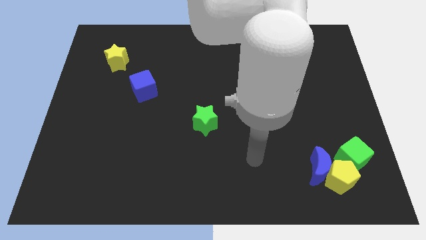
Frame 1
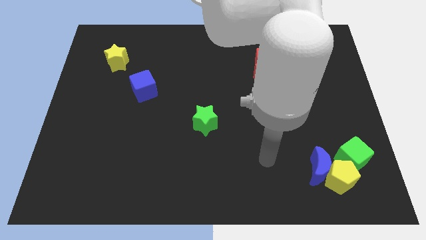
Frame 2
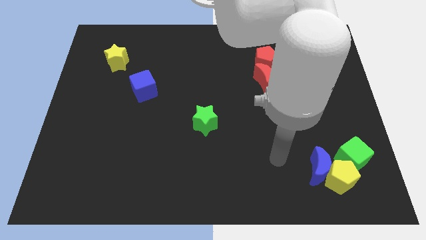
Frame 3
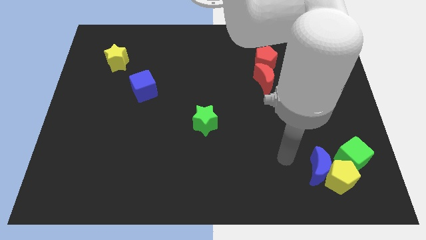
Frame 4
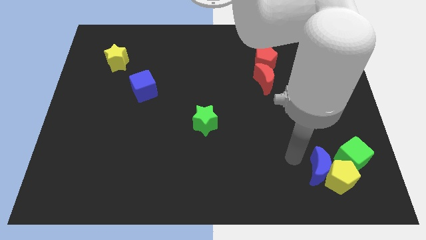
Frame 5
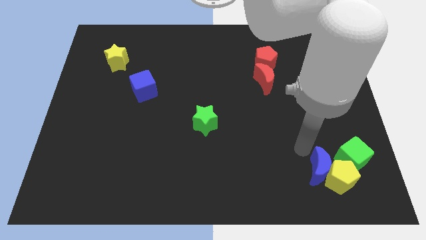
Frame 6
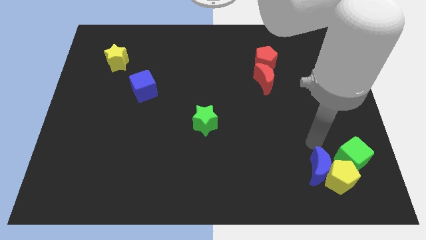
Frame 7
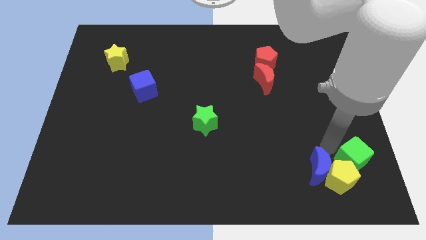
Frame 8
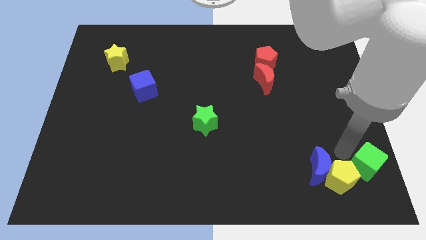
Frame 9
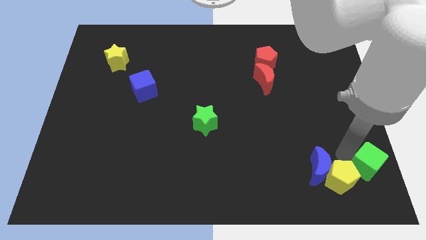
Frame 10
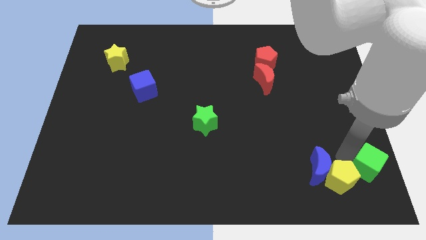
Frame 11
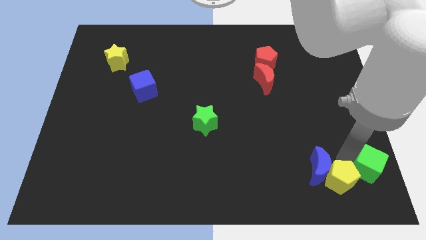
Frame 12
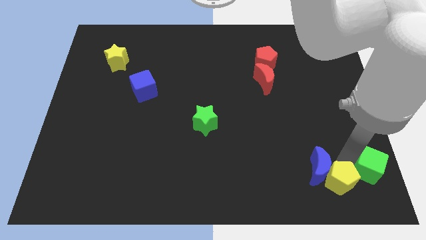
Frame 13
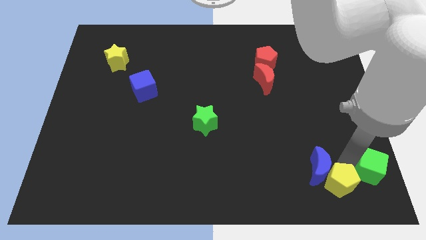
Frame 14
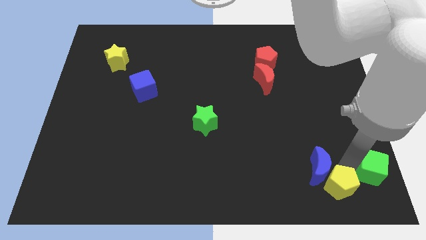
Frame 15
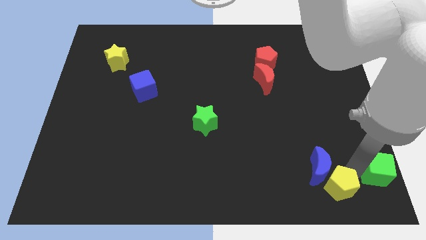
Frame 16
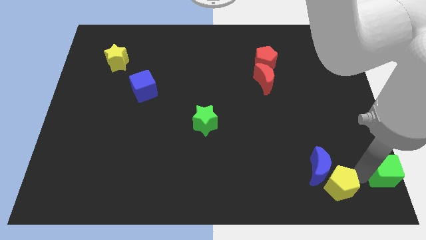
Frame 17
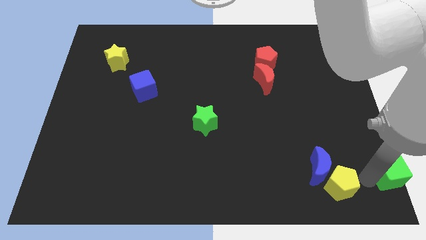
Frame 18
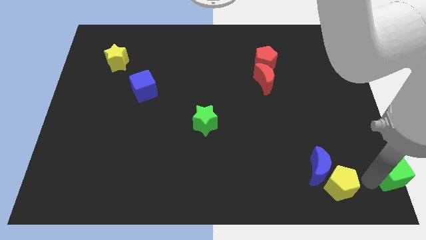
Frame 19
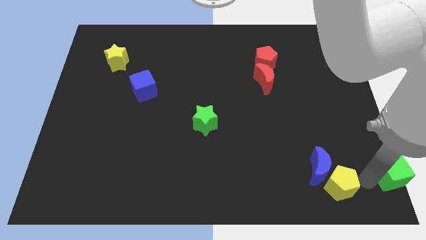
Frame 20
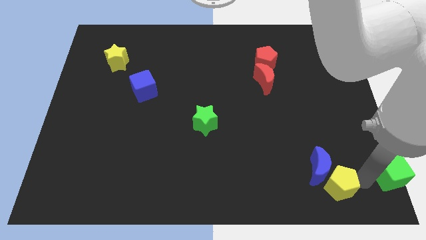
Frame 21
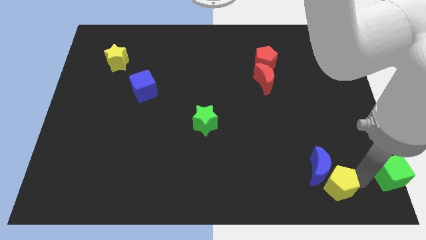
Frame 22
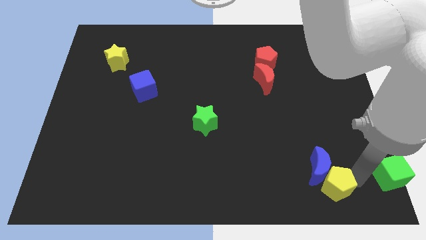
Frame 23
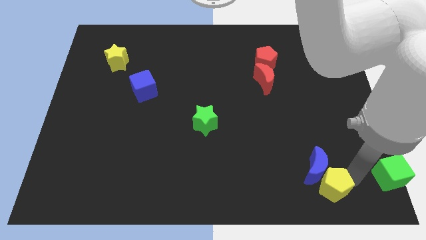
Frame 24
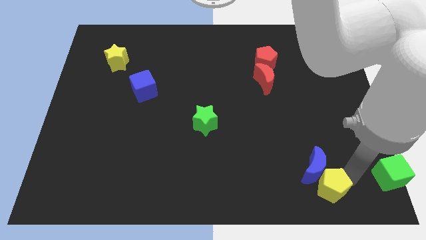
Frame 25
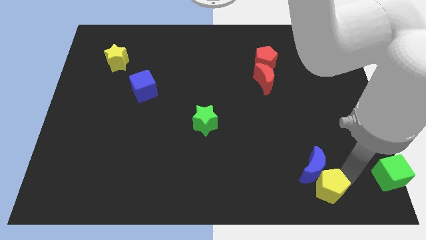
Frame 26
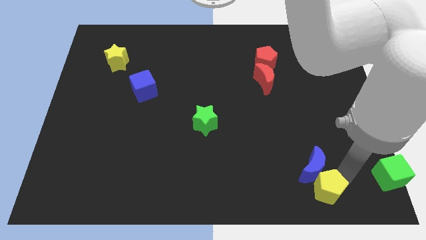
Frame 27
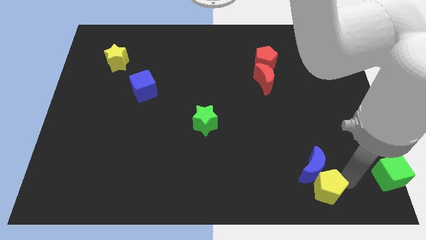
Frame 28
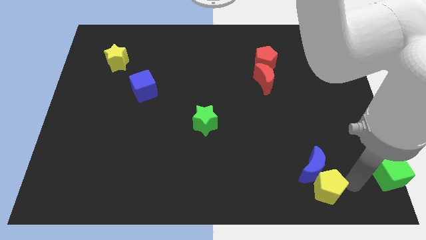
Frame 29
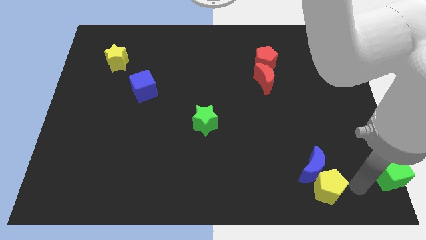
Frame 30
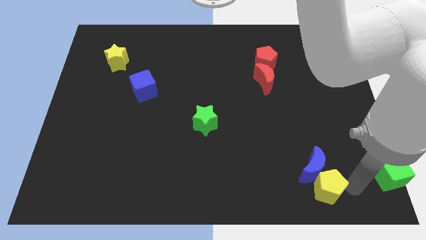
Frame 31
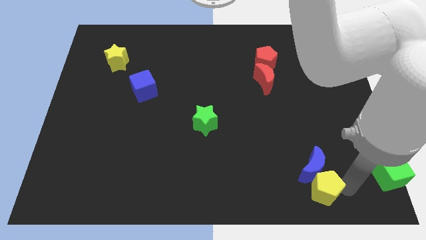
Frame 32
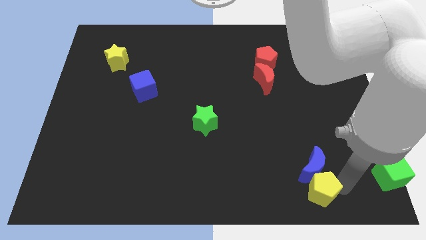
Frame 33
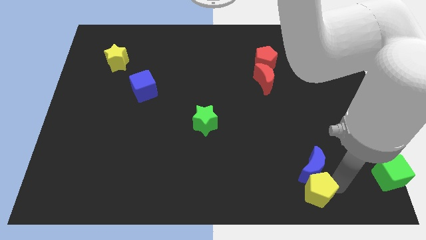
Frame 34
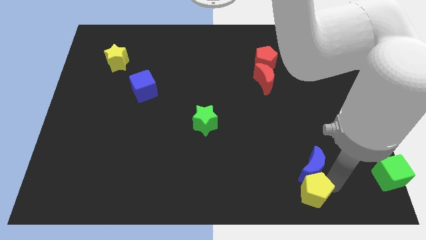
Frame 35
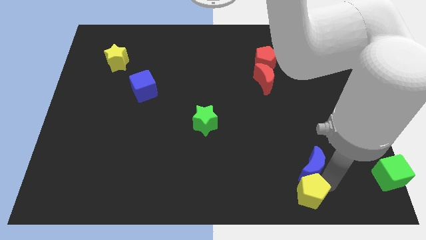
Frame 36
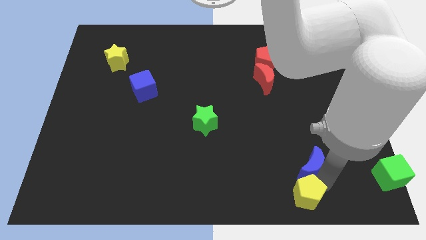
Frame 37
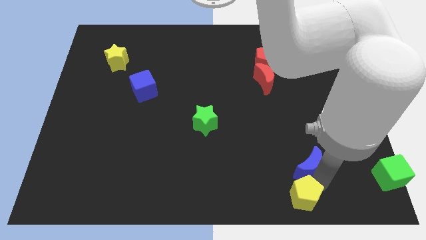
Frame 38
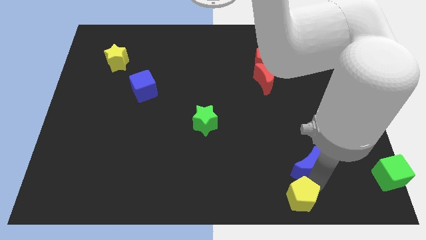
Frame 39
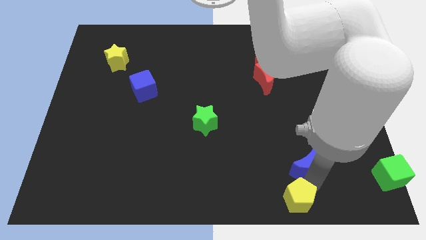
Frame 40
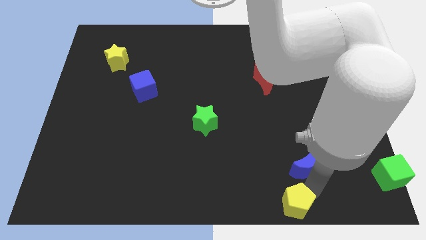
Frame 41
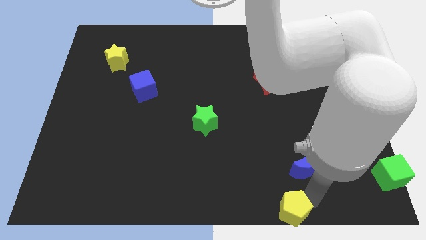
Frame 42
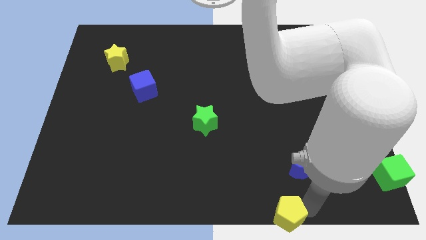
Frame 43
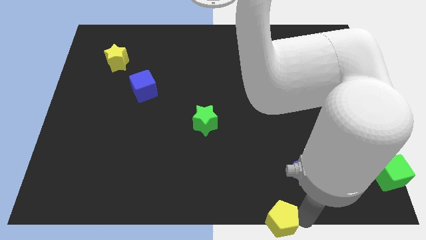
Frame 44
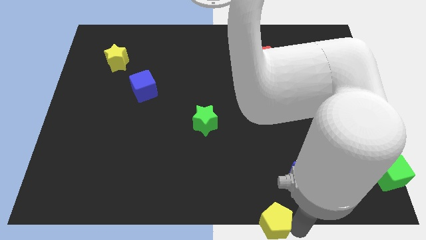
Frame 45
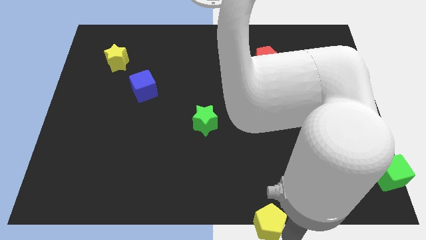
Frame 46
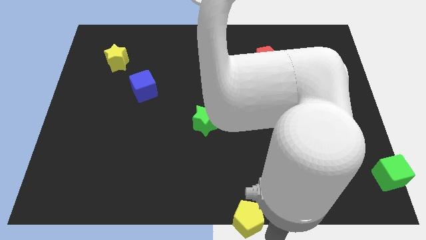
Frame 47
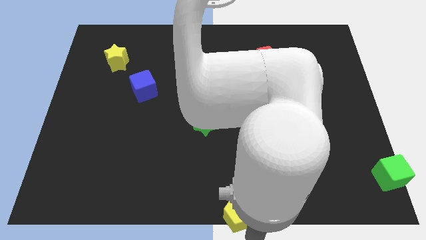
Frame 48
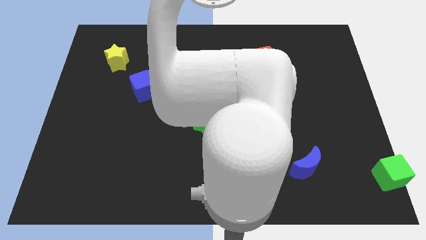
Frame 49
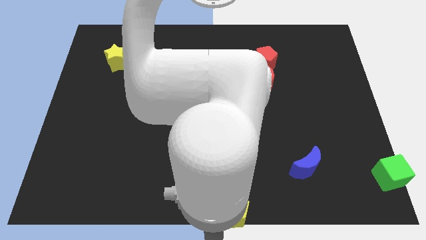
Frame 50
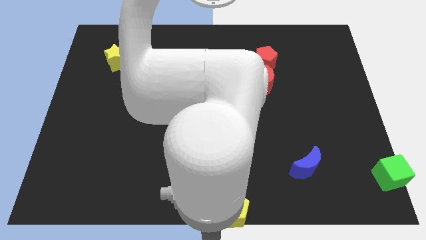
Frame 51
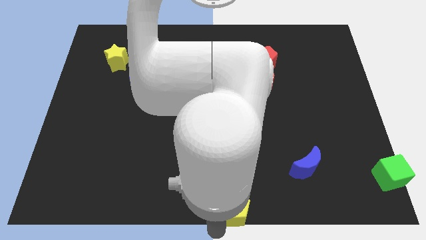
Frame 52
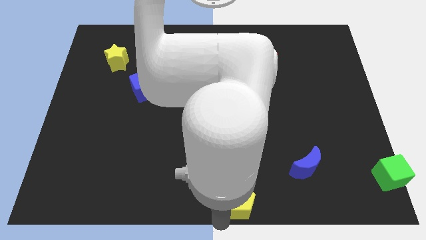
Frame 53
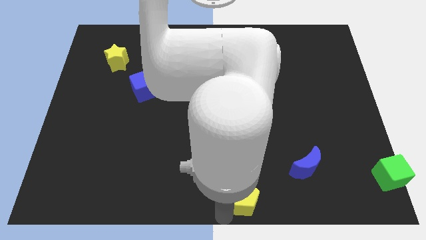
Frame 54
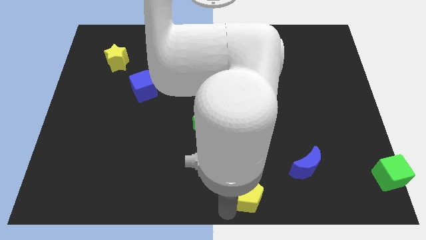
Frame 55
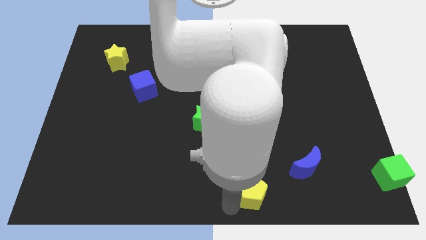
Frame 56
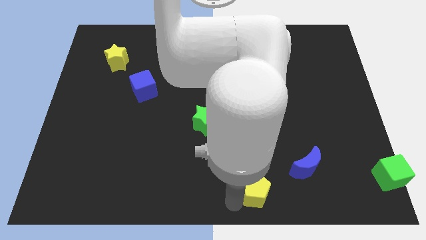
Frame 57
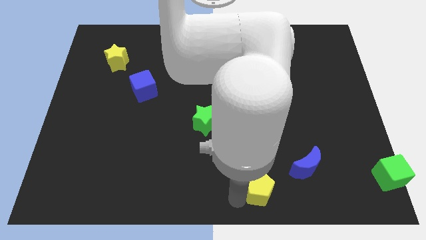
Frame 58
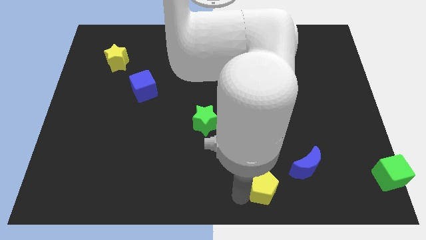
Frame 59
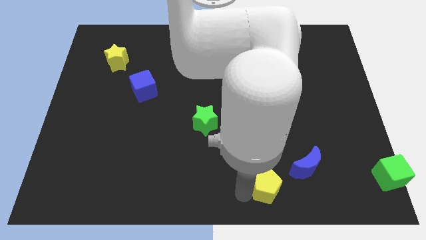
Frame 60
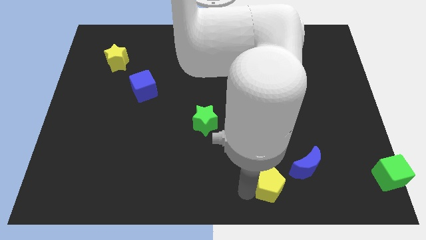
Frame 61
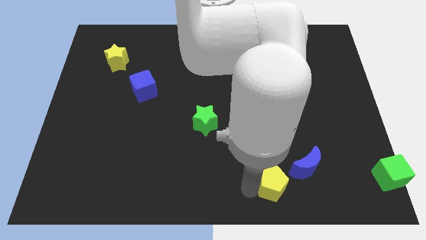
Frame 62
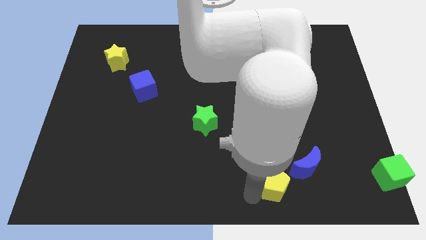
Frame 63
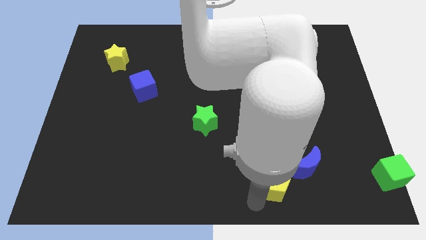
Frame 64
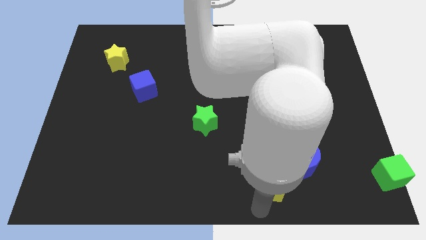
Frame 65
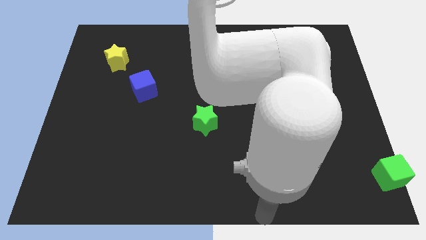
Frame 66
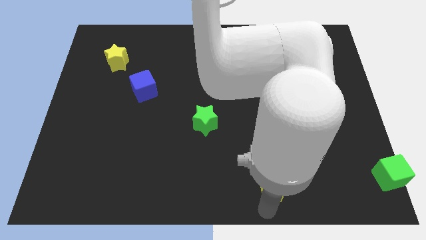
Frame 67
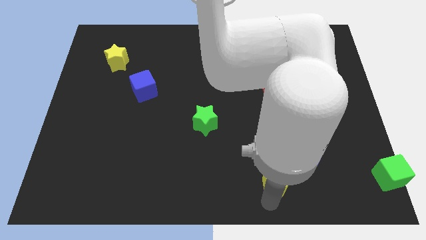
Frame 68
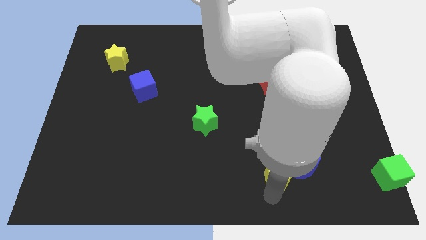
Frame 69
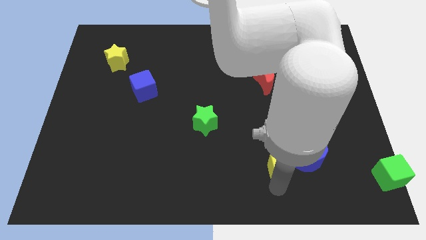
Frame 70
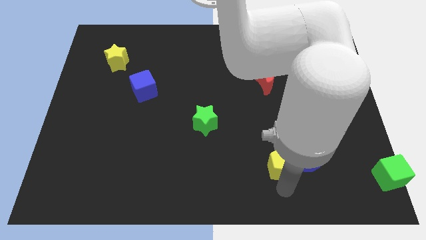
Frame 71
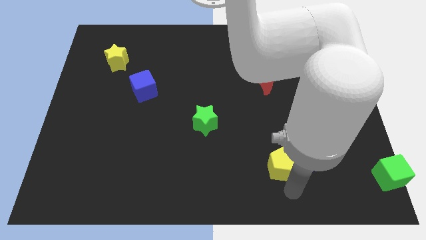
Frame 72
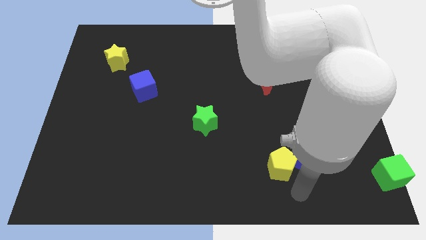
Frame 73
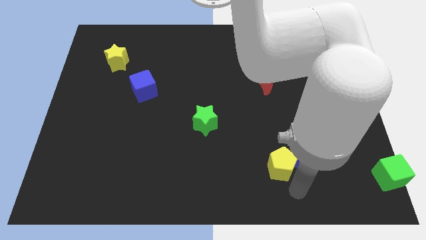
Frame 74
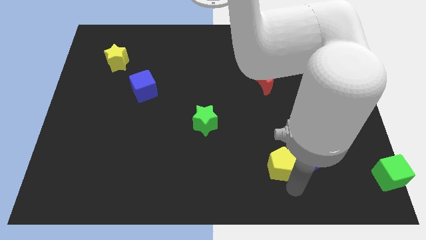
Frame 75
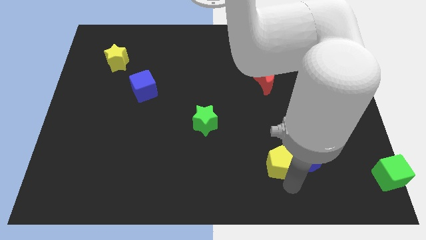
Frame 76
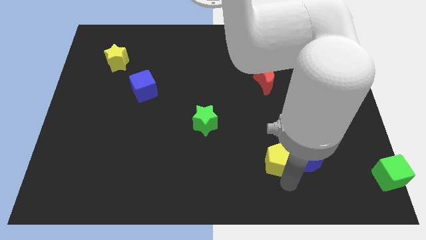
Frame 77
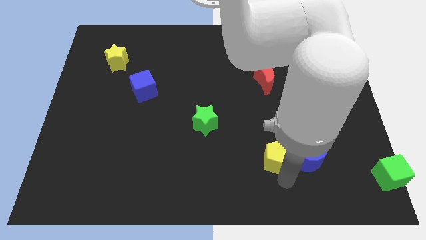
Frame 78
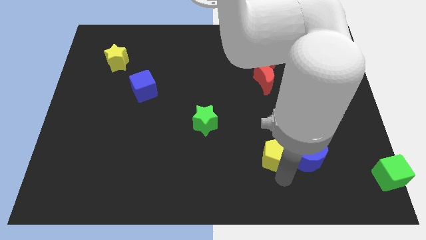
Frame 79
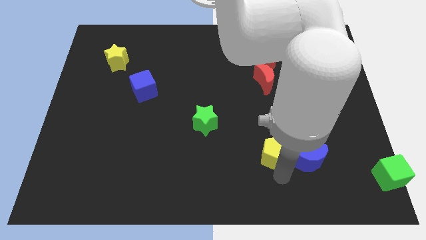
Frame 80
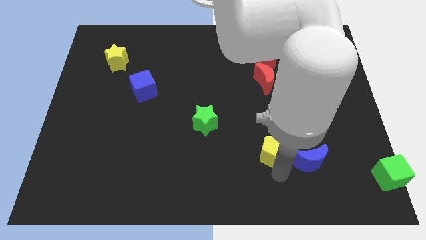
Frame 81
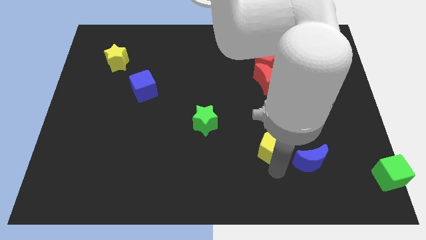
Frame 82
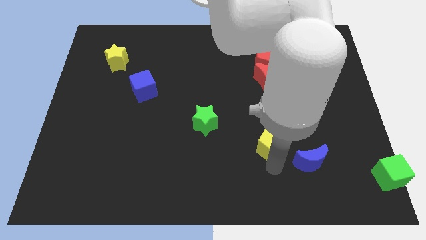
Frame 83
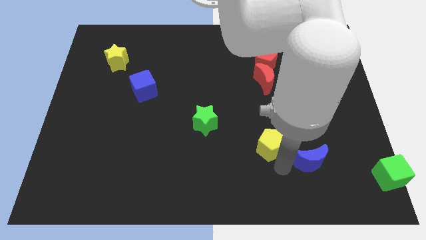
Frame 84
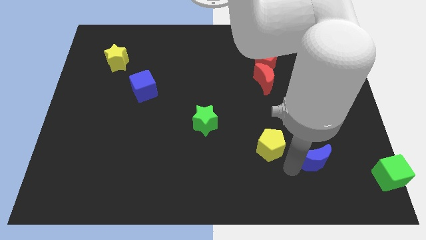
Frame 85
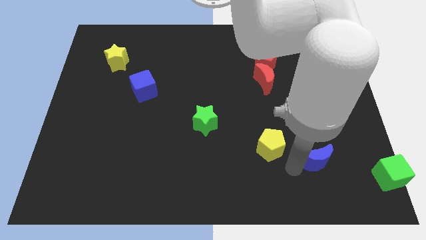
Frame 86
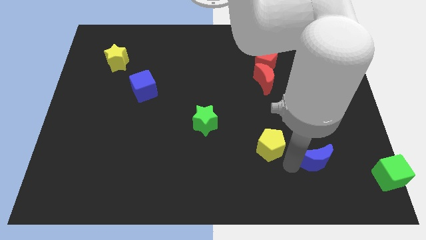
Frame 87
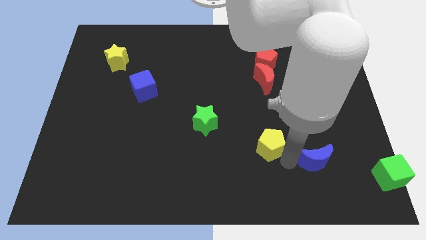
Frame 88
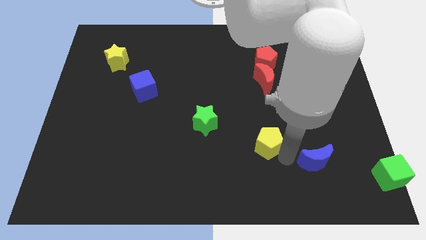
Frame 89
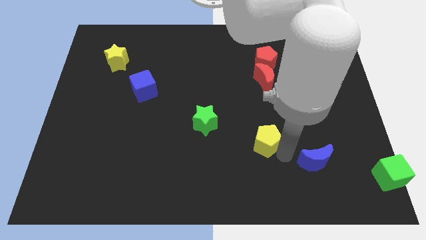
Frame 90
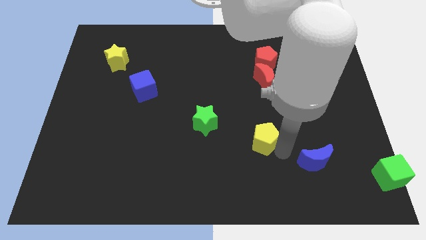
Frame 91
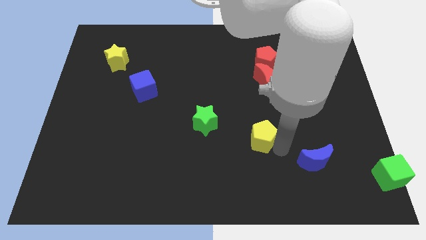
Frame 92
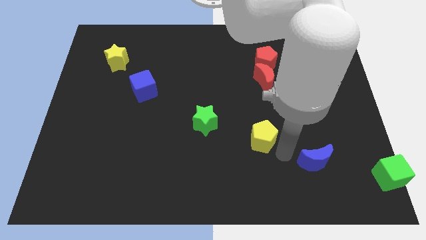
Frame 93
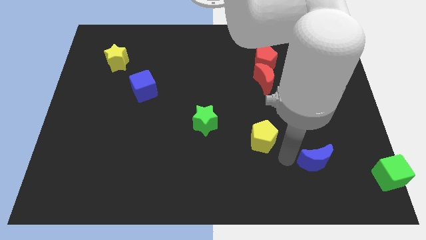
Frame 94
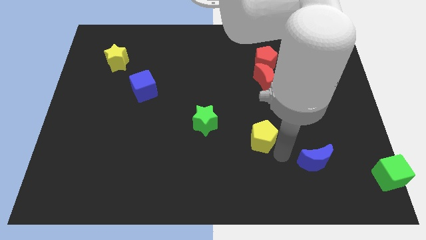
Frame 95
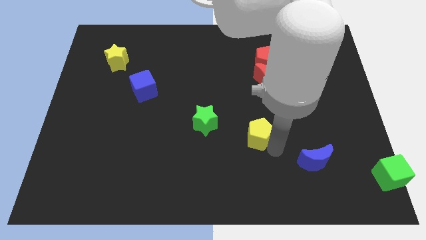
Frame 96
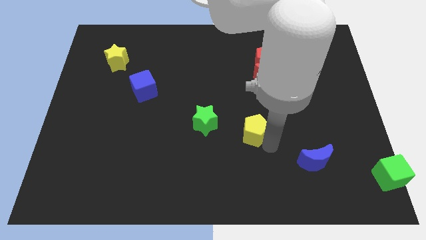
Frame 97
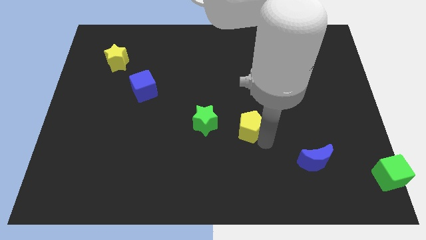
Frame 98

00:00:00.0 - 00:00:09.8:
push the yellow pentagon up and left
